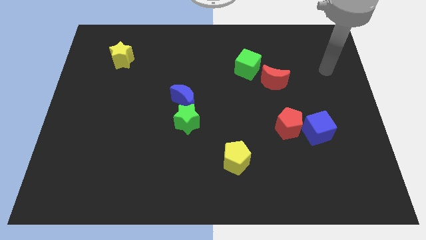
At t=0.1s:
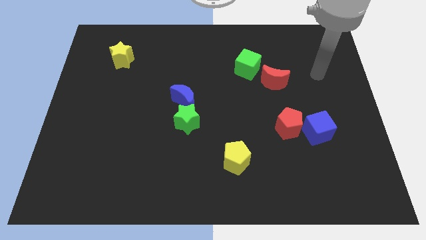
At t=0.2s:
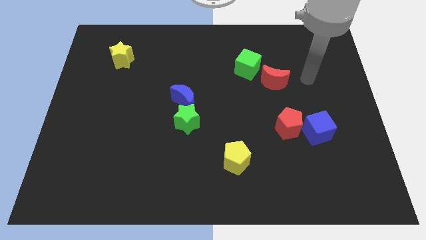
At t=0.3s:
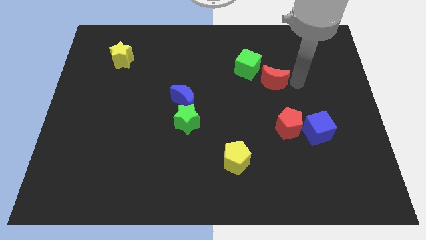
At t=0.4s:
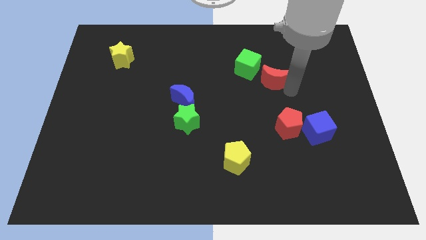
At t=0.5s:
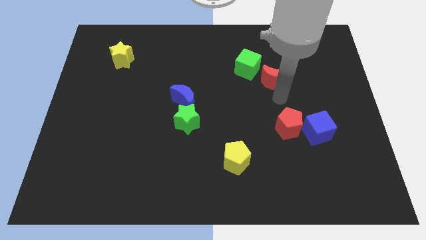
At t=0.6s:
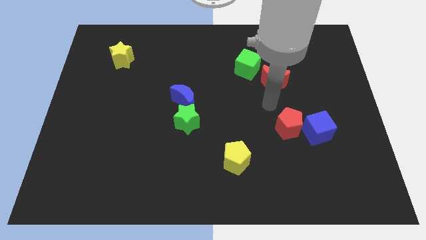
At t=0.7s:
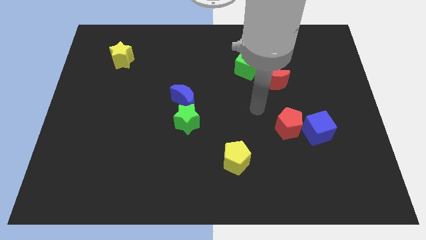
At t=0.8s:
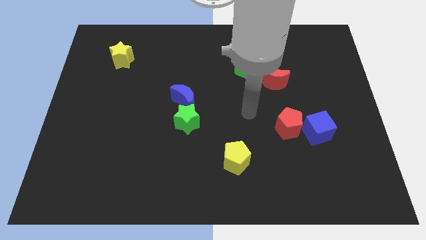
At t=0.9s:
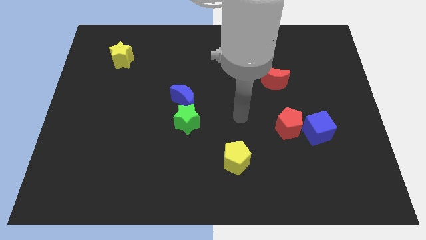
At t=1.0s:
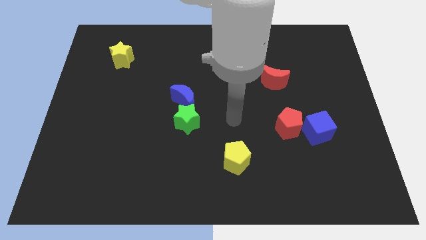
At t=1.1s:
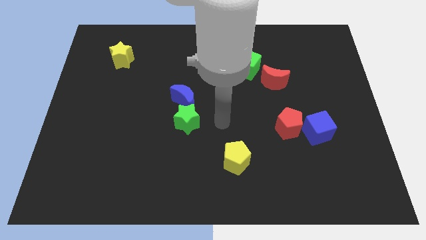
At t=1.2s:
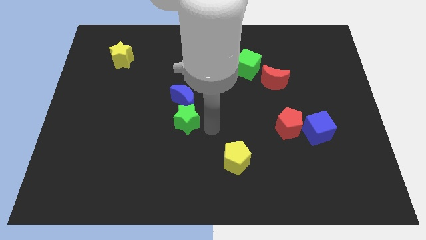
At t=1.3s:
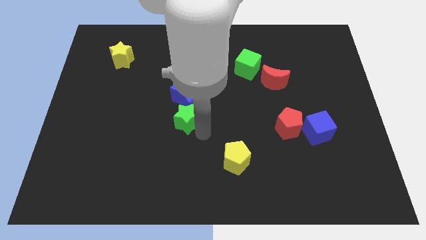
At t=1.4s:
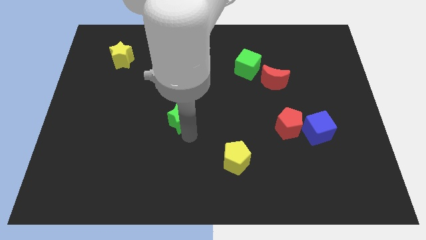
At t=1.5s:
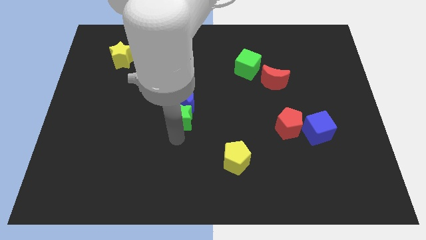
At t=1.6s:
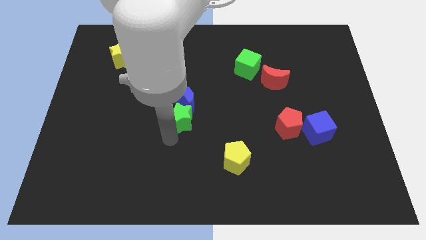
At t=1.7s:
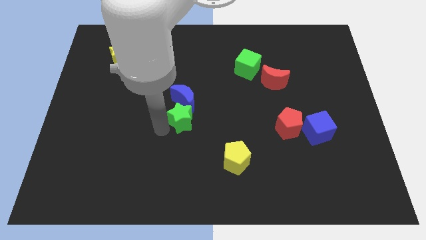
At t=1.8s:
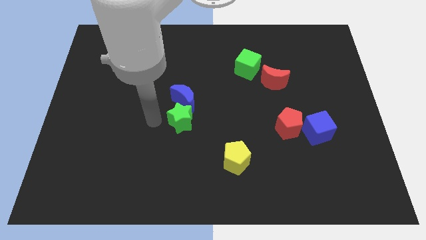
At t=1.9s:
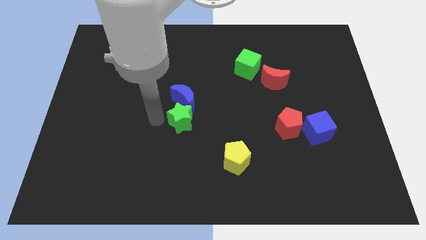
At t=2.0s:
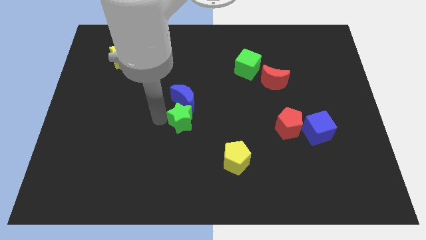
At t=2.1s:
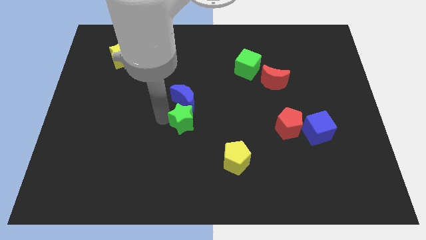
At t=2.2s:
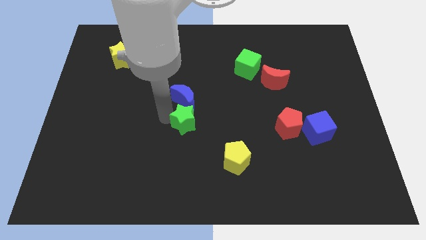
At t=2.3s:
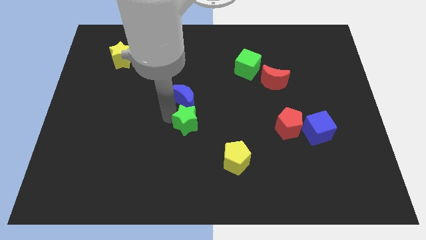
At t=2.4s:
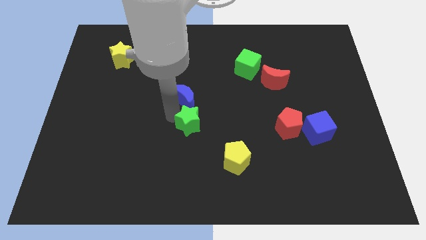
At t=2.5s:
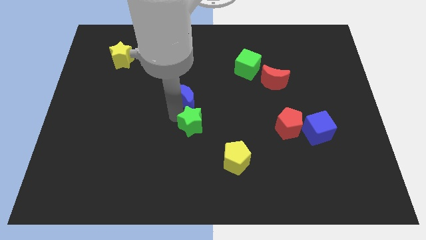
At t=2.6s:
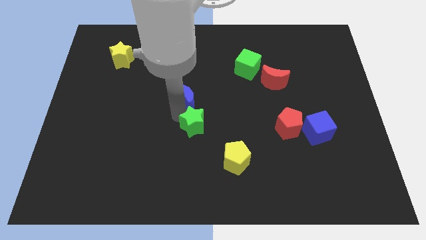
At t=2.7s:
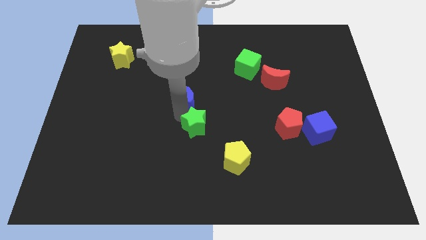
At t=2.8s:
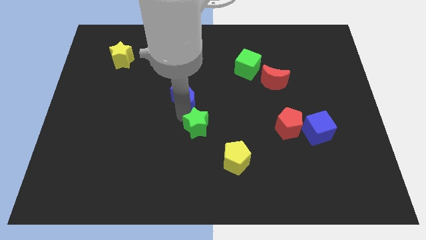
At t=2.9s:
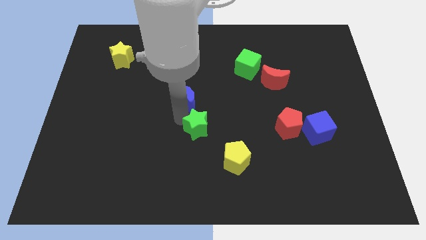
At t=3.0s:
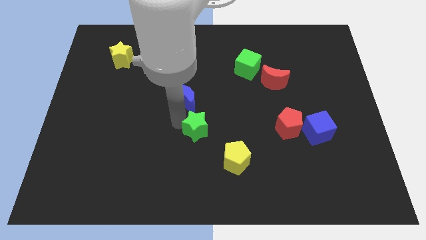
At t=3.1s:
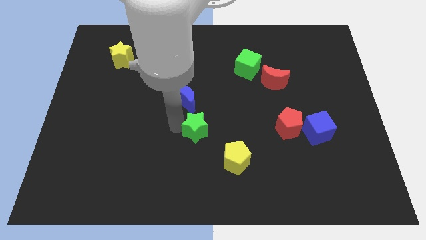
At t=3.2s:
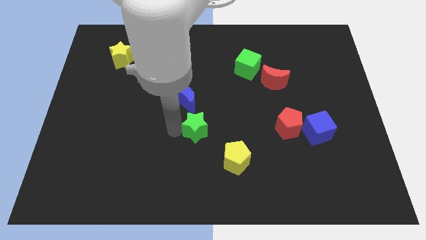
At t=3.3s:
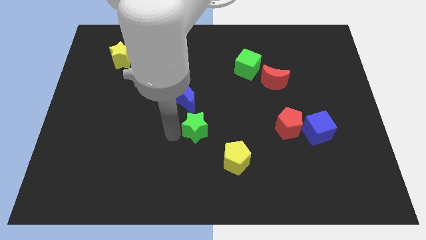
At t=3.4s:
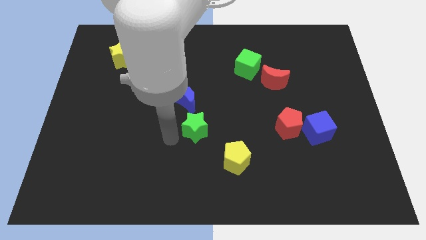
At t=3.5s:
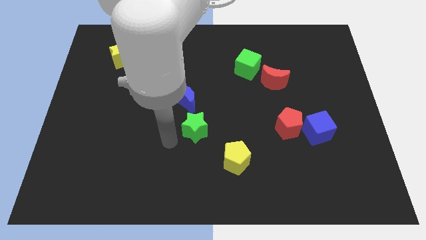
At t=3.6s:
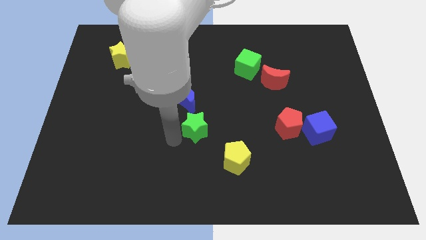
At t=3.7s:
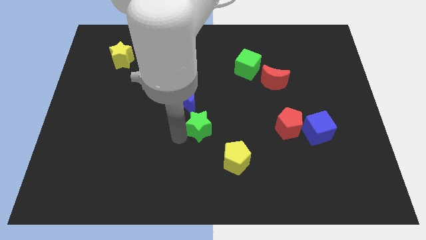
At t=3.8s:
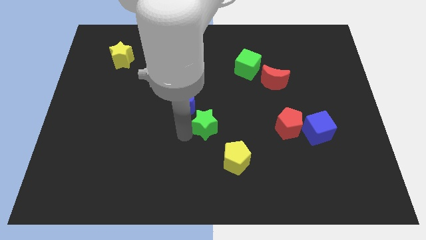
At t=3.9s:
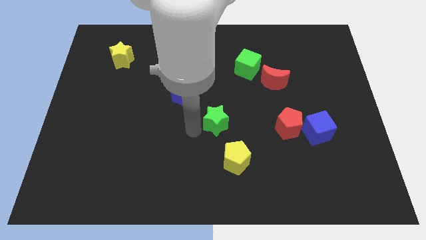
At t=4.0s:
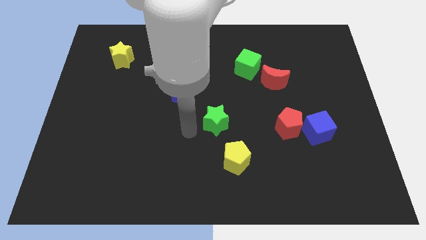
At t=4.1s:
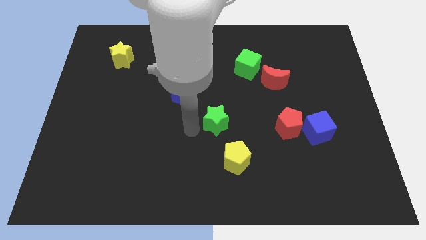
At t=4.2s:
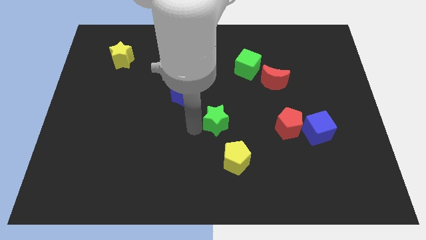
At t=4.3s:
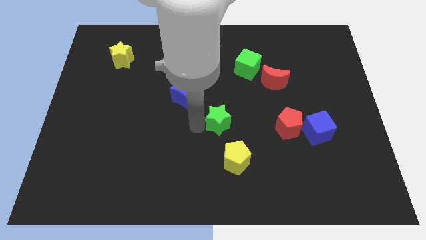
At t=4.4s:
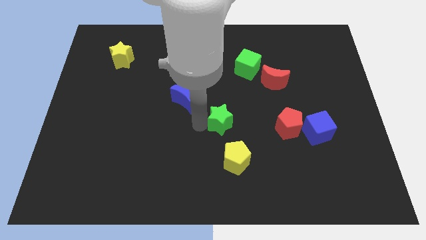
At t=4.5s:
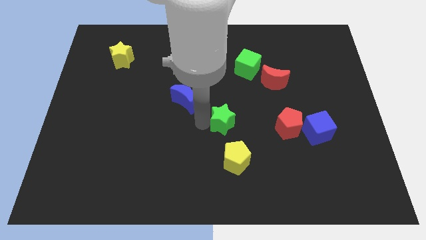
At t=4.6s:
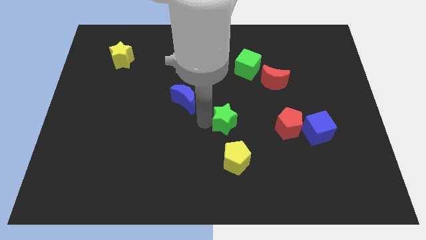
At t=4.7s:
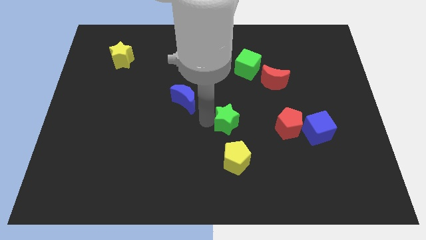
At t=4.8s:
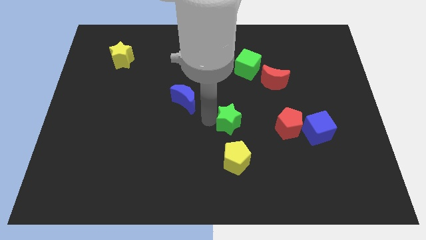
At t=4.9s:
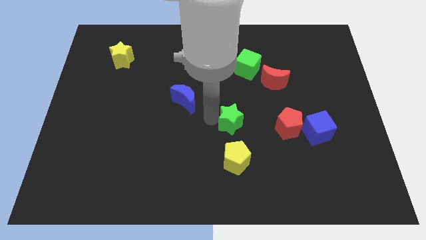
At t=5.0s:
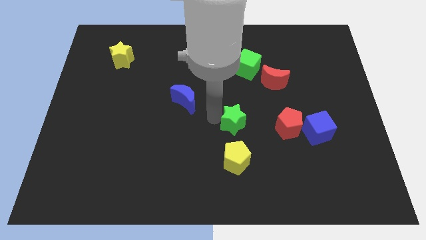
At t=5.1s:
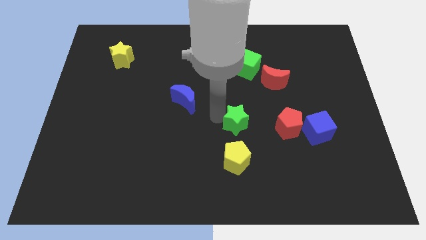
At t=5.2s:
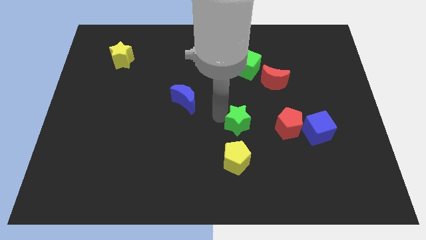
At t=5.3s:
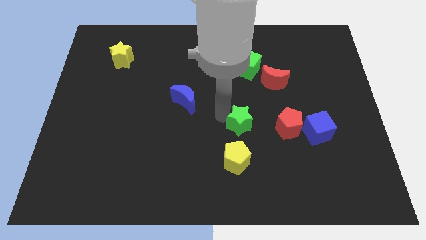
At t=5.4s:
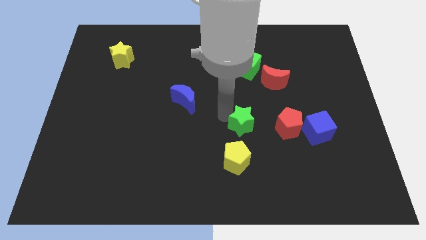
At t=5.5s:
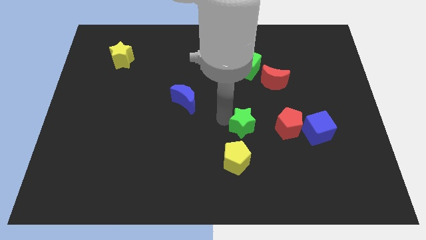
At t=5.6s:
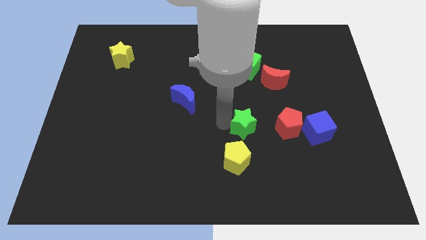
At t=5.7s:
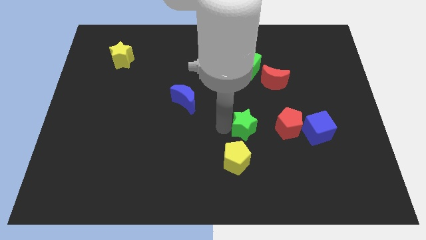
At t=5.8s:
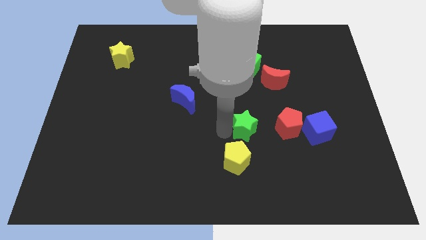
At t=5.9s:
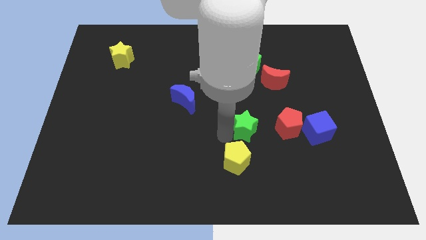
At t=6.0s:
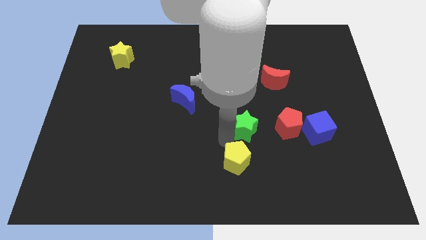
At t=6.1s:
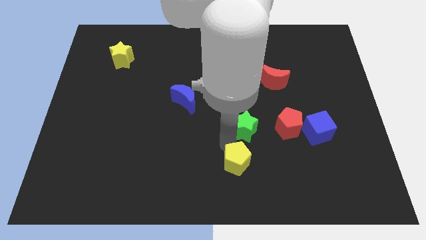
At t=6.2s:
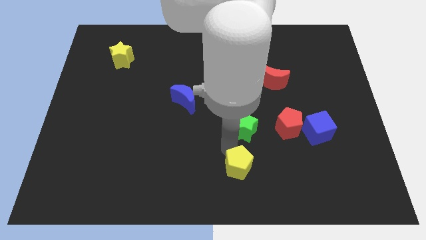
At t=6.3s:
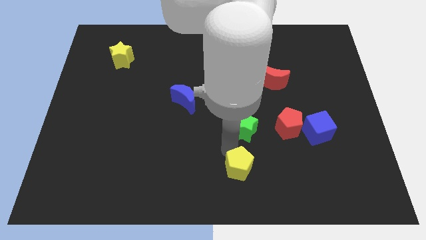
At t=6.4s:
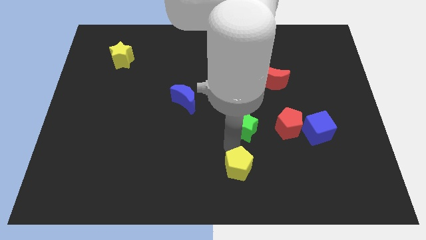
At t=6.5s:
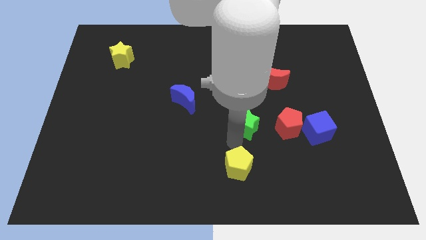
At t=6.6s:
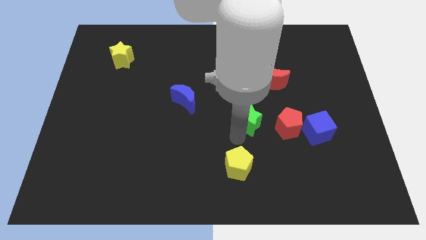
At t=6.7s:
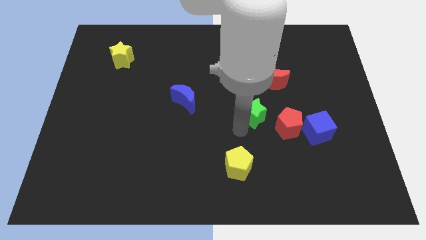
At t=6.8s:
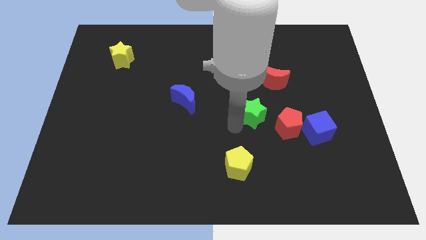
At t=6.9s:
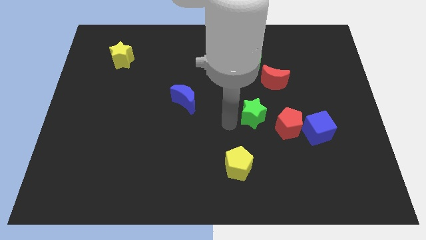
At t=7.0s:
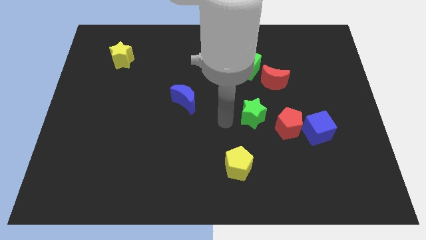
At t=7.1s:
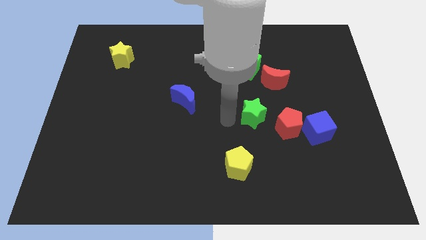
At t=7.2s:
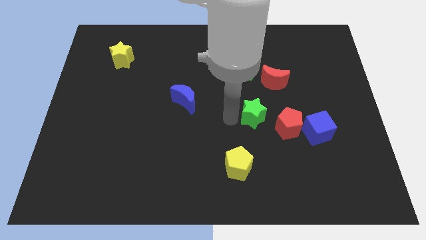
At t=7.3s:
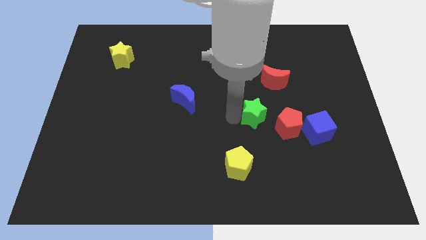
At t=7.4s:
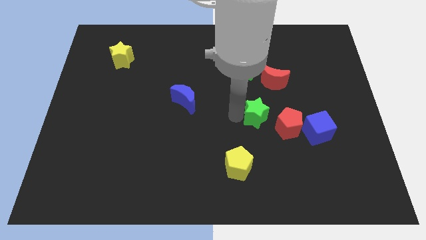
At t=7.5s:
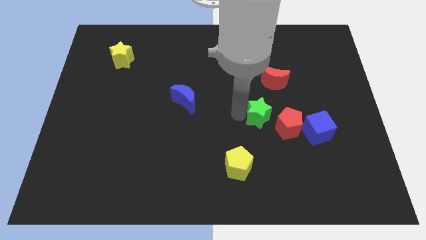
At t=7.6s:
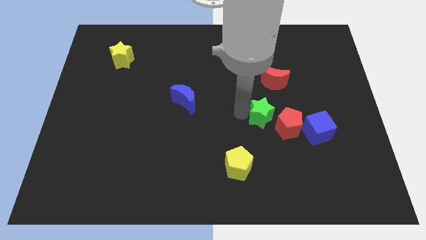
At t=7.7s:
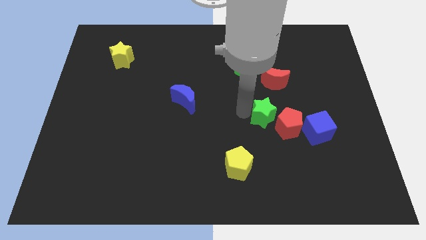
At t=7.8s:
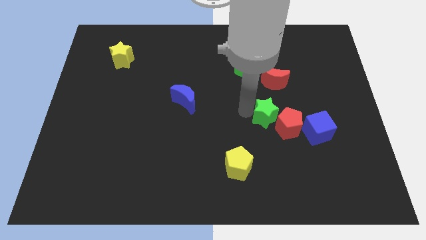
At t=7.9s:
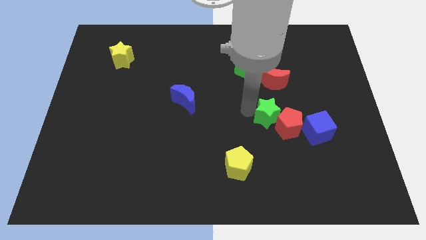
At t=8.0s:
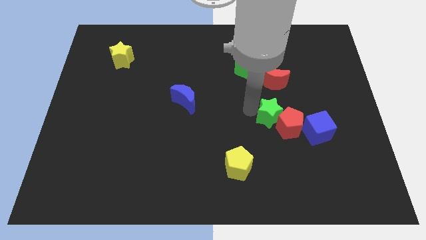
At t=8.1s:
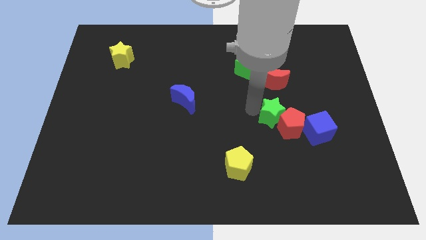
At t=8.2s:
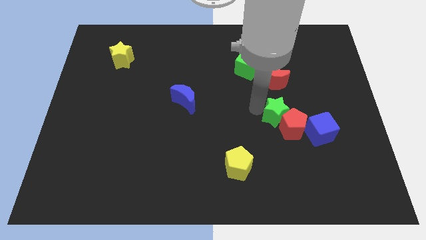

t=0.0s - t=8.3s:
move the green star right

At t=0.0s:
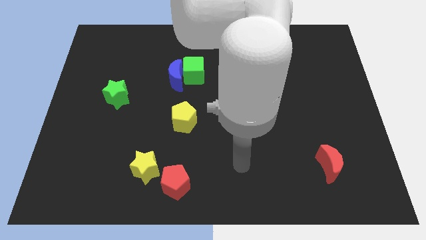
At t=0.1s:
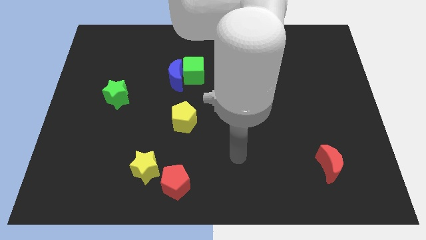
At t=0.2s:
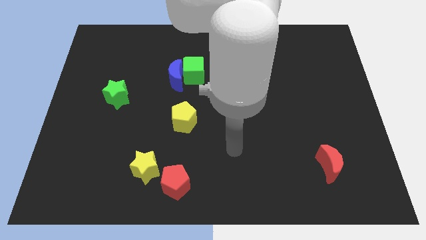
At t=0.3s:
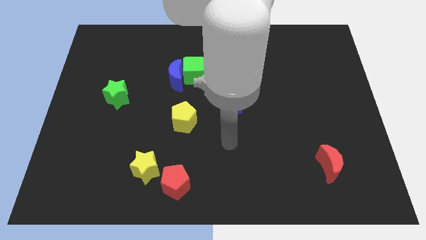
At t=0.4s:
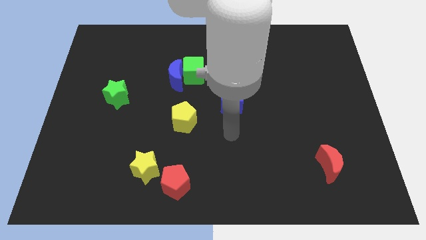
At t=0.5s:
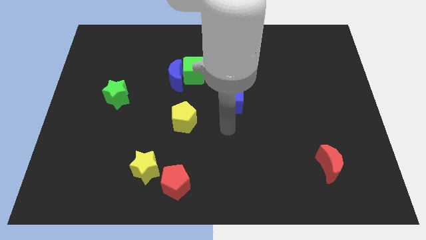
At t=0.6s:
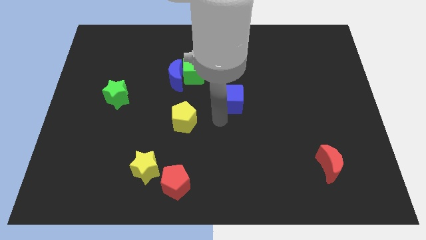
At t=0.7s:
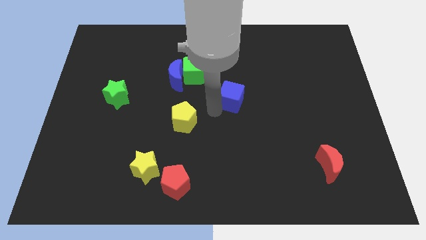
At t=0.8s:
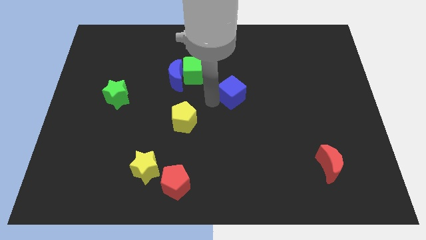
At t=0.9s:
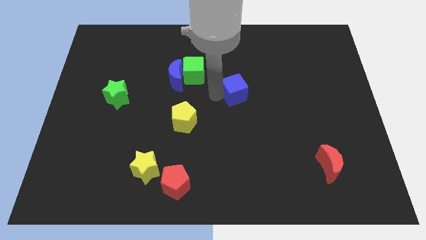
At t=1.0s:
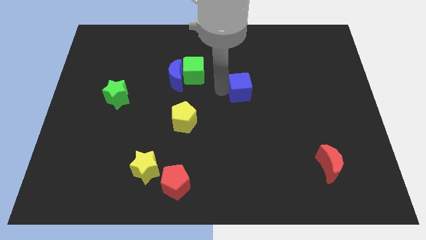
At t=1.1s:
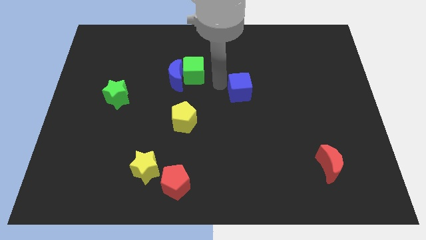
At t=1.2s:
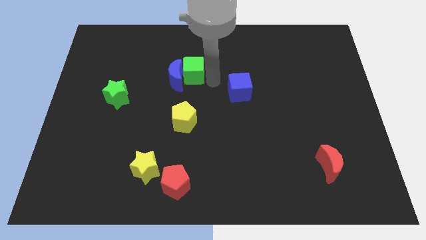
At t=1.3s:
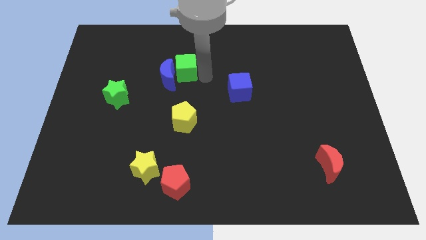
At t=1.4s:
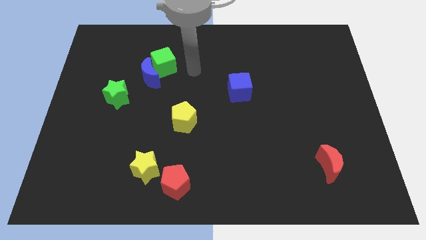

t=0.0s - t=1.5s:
slightly push the blue moon to the left
